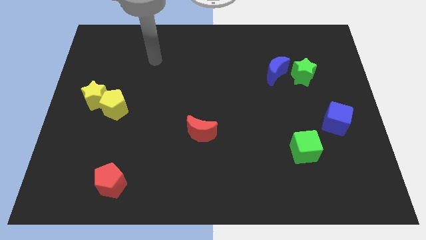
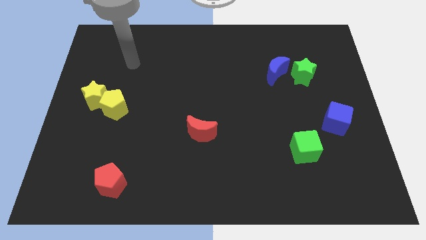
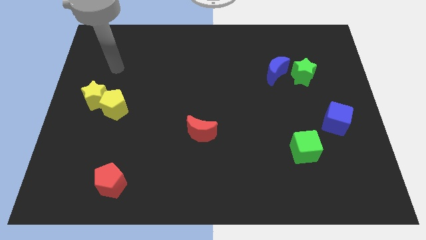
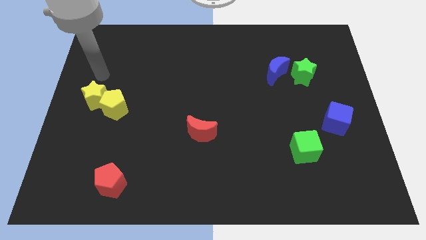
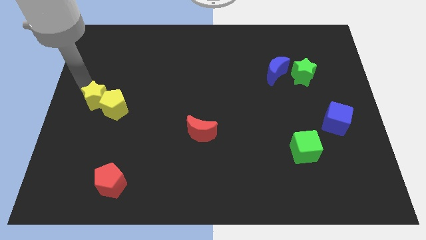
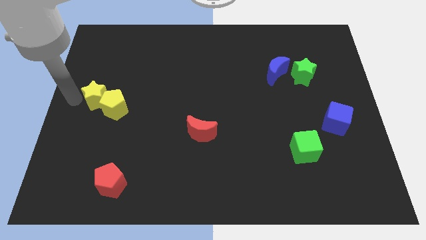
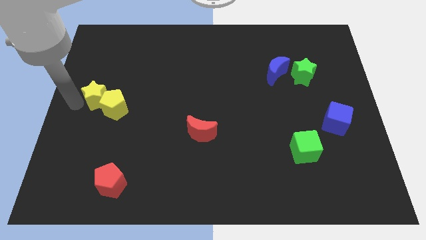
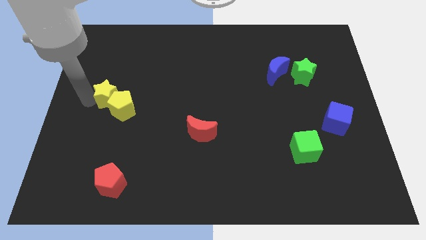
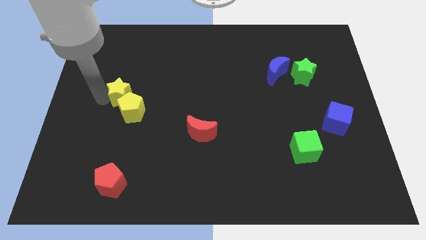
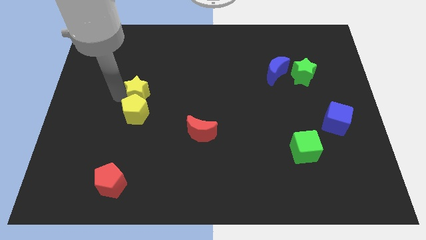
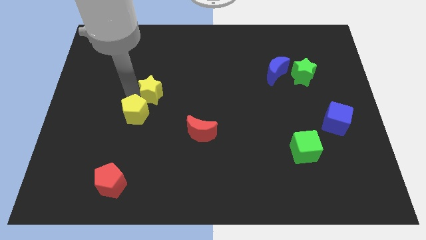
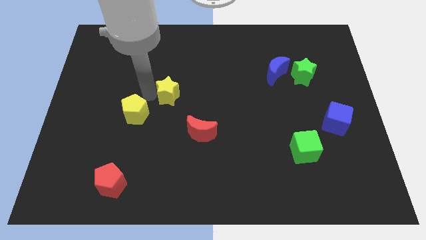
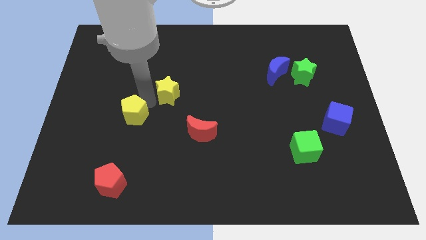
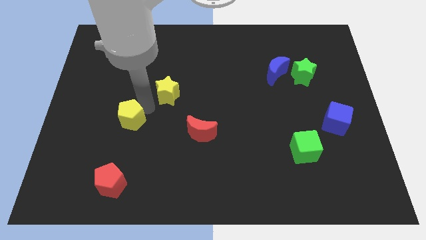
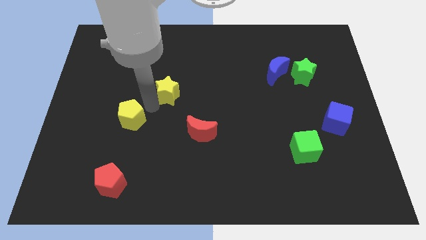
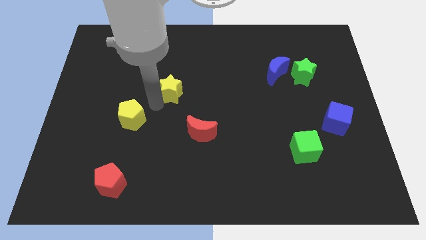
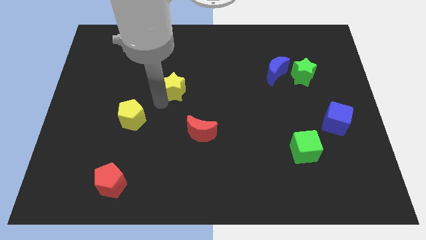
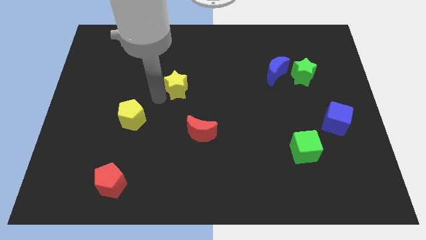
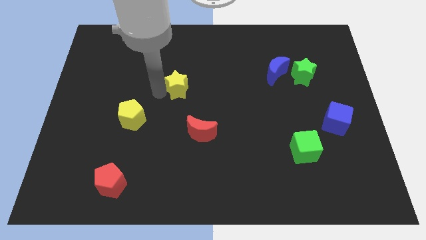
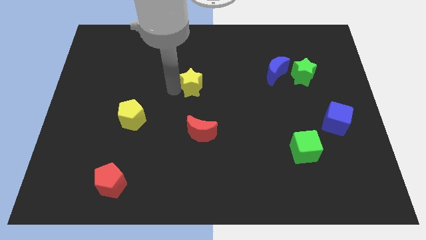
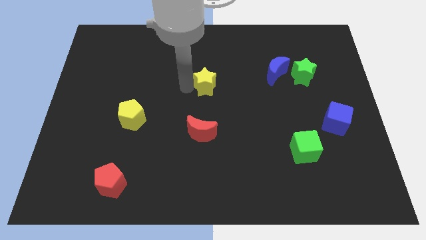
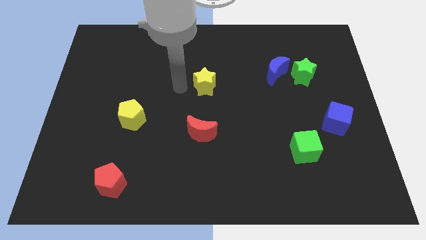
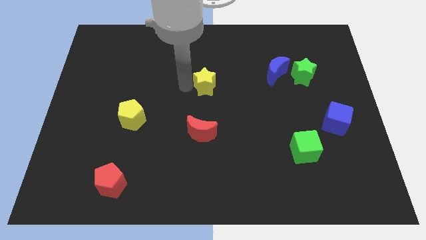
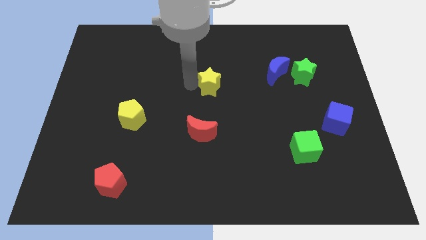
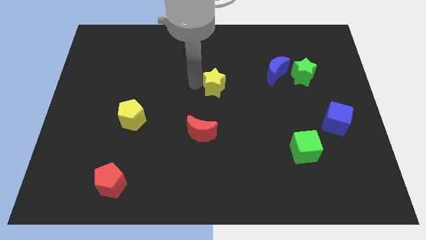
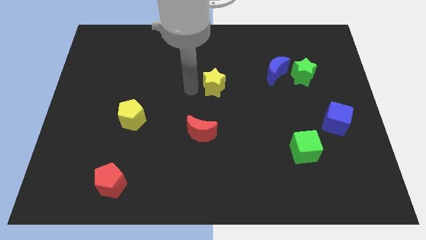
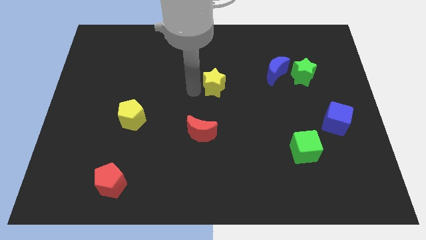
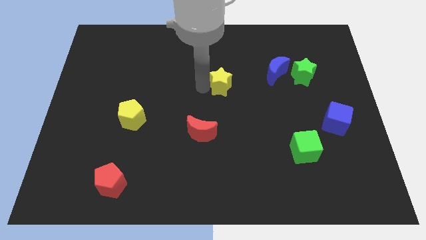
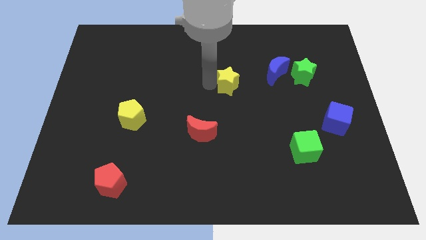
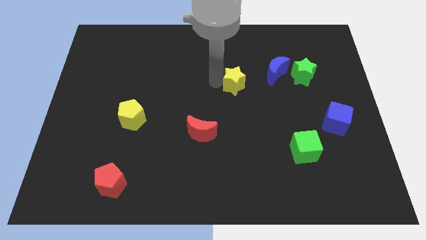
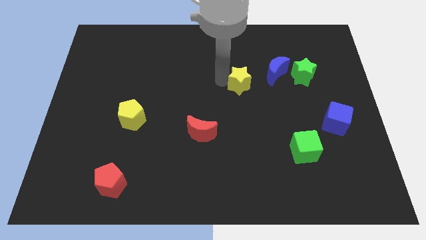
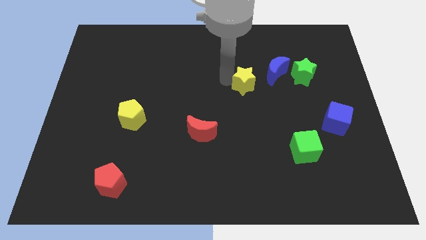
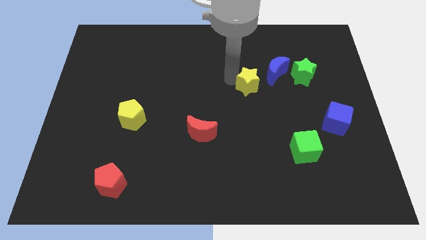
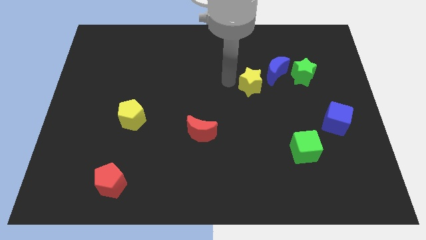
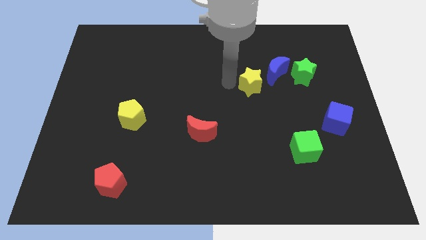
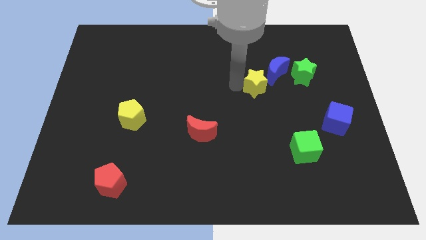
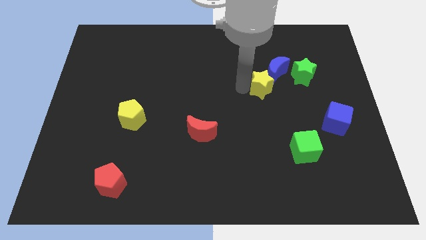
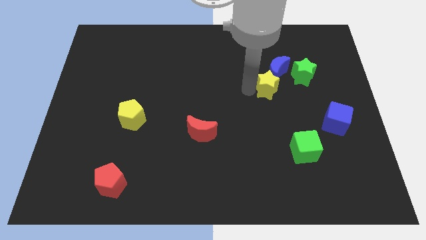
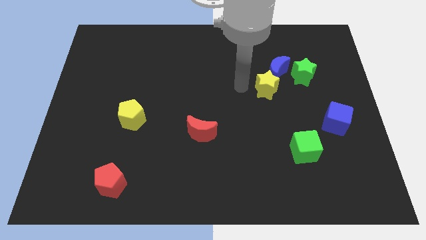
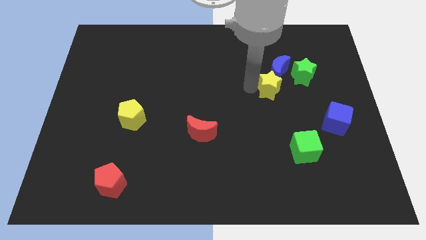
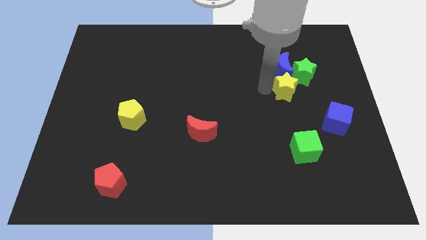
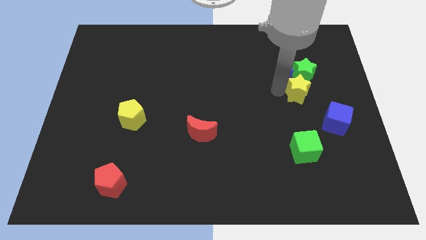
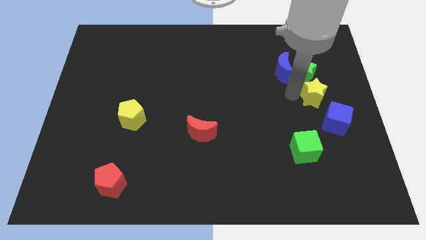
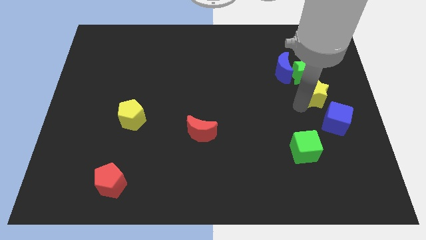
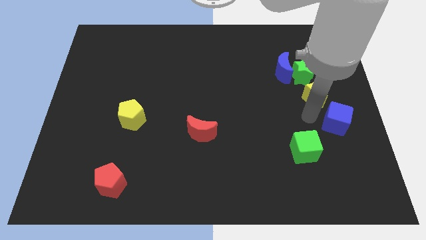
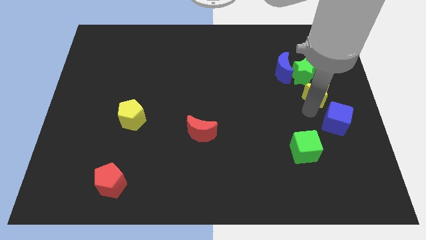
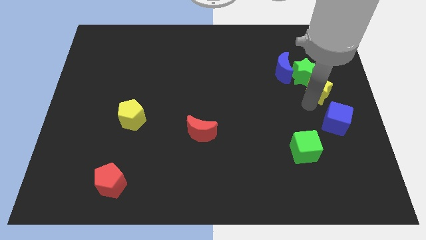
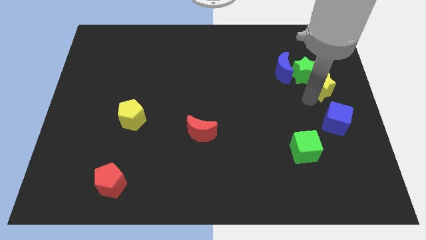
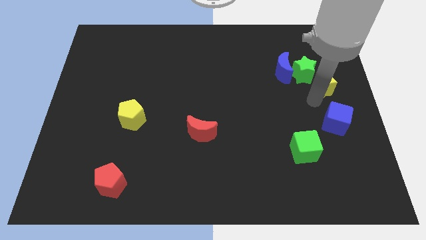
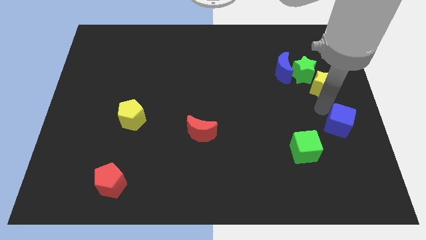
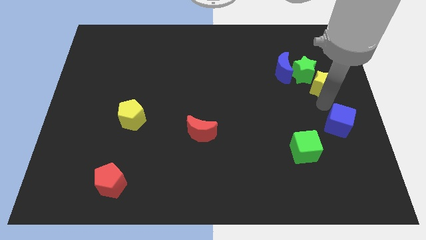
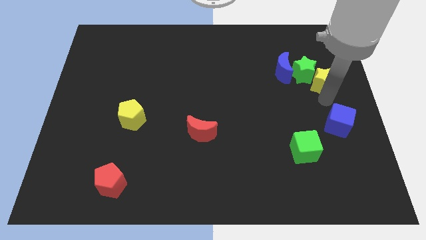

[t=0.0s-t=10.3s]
put the yellow star right of the blue moon

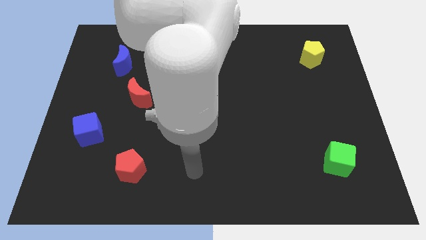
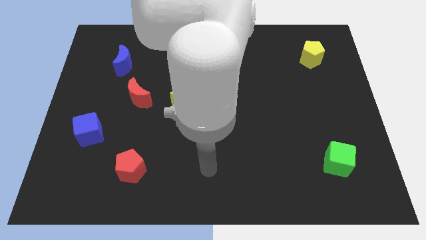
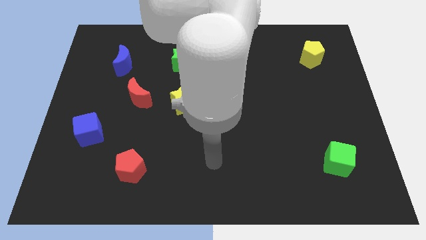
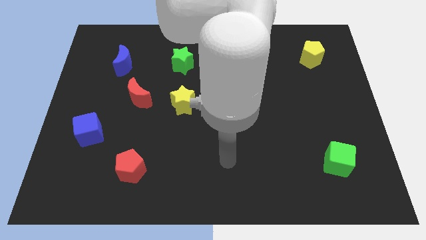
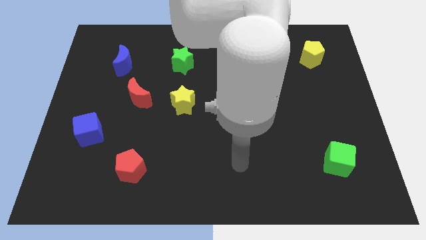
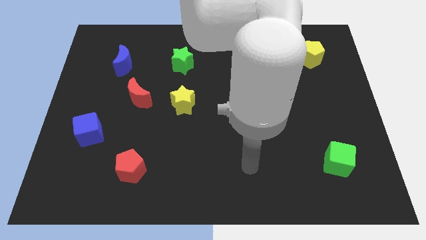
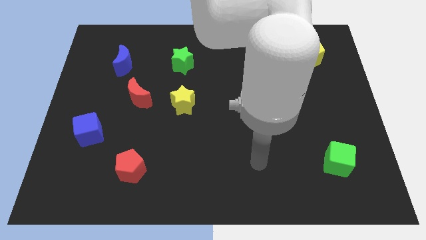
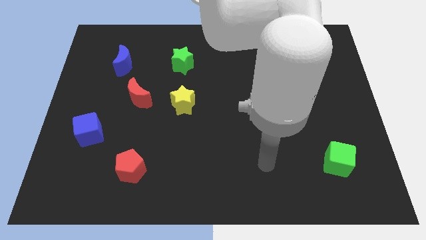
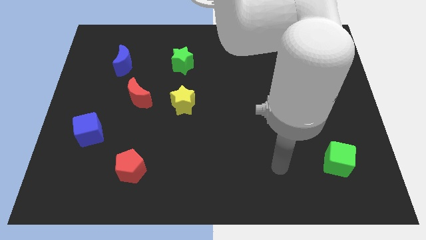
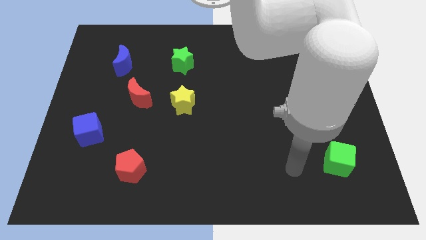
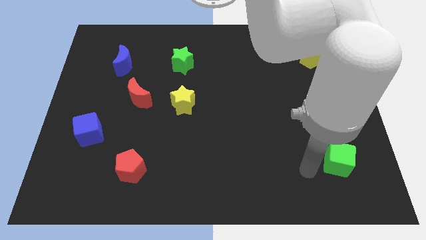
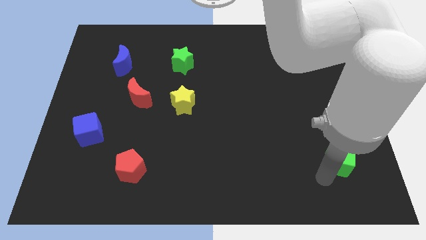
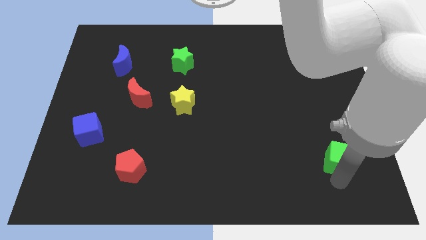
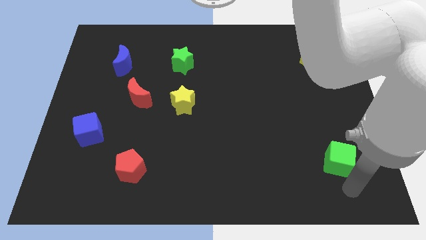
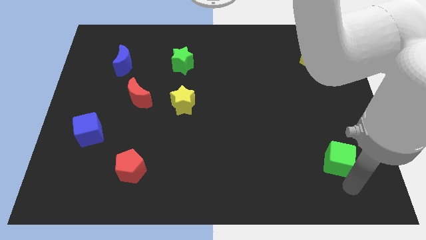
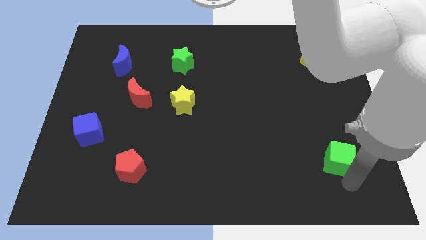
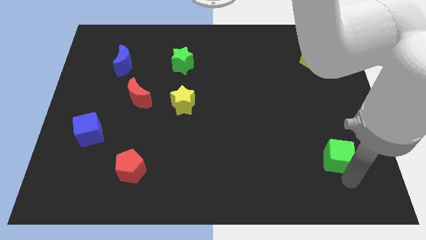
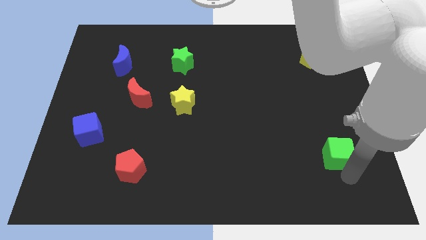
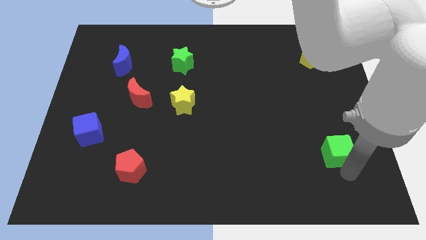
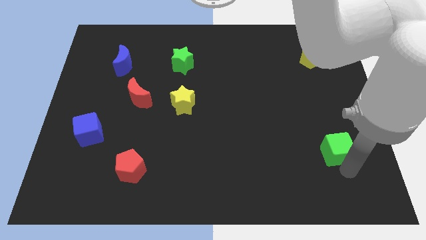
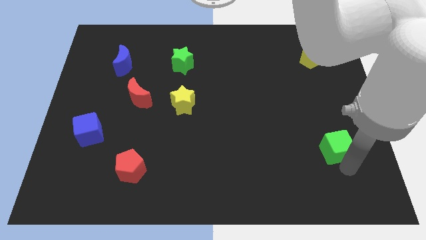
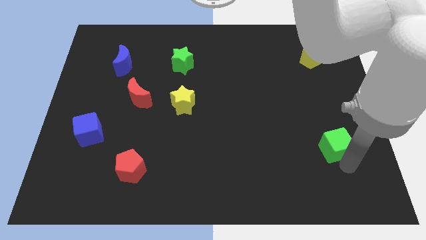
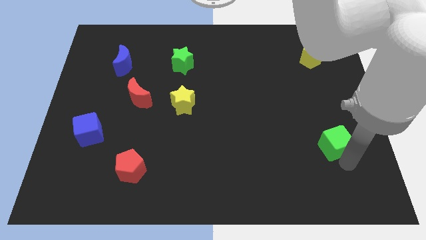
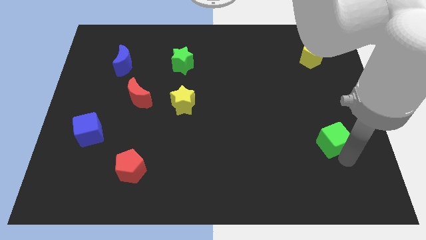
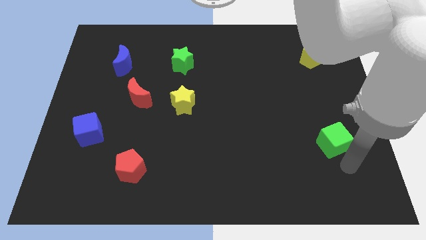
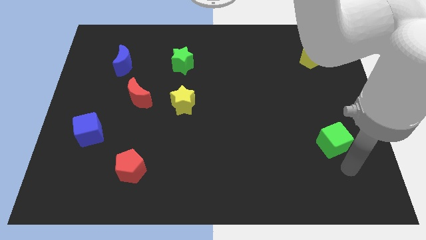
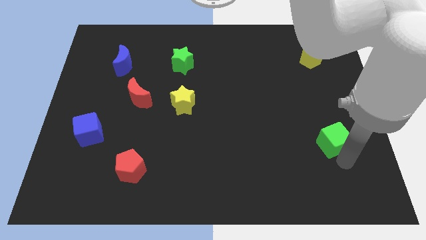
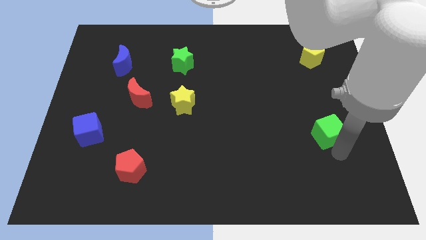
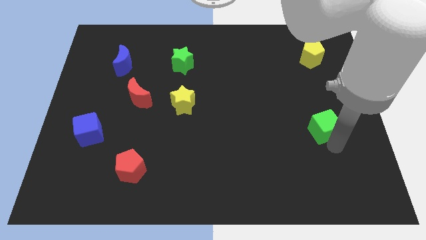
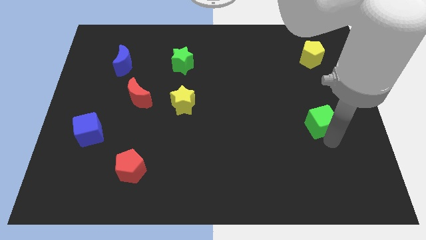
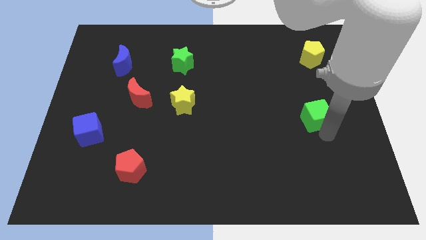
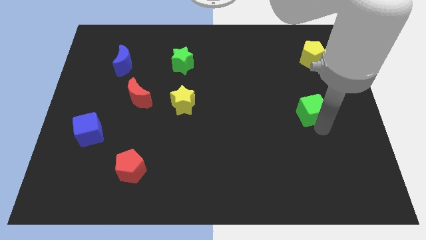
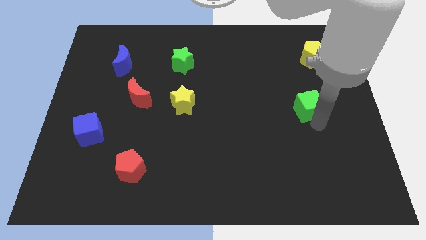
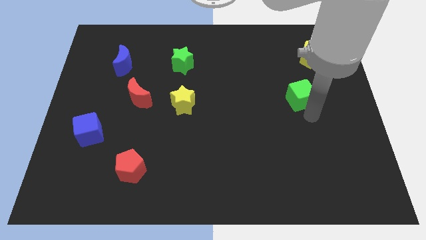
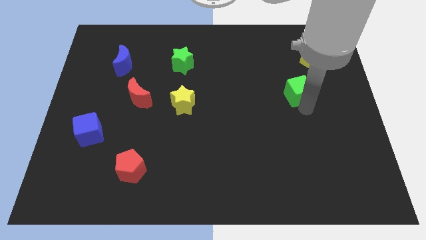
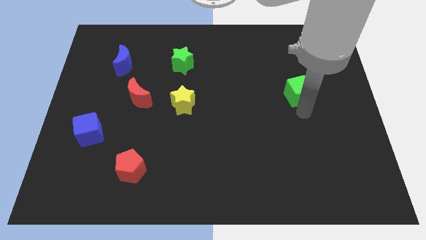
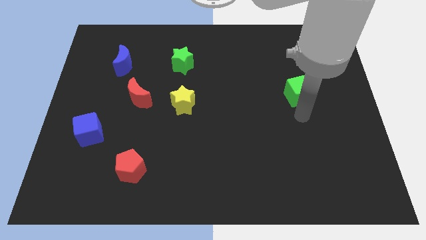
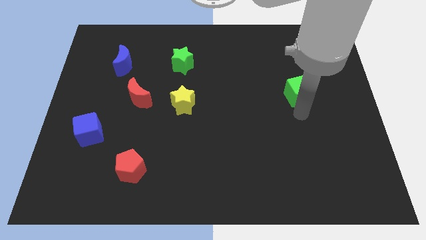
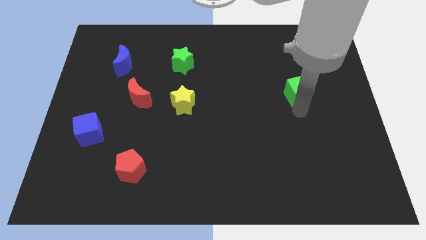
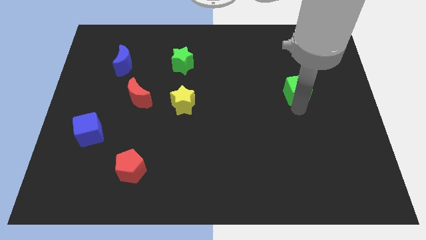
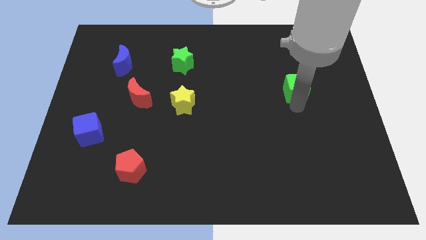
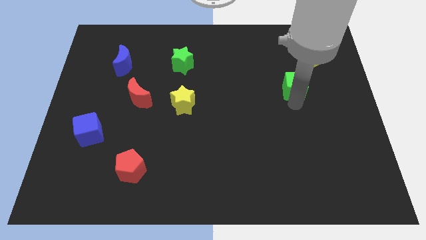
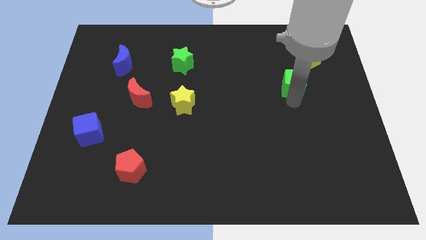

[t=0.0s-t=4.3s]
slide the green cube to the bottom left of the yellow pentagon
